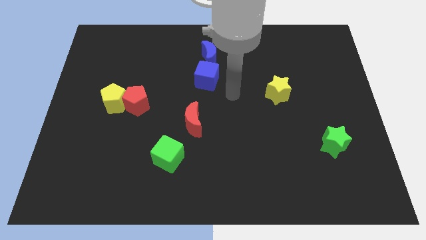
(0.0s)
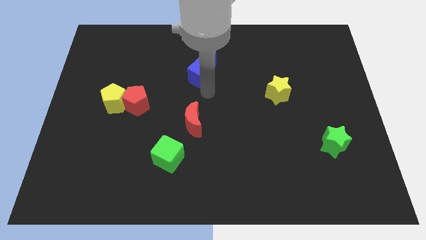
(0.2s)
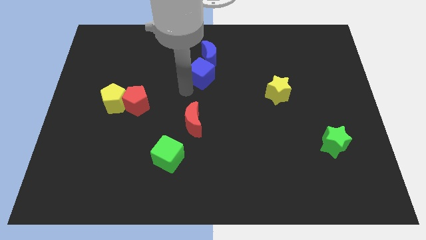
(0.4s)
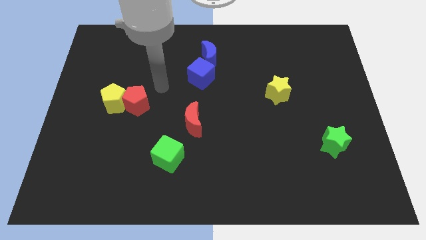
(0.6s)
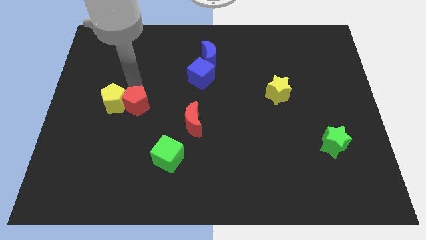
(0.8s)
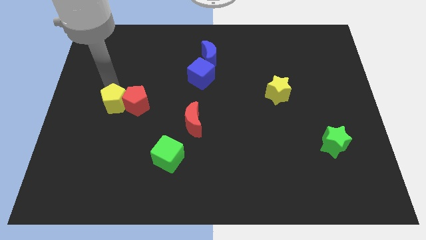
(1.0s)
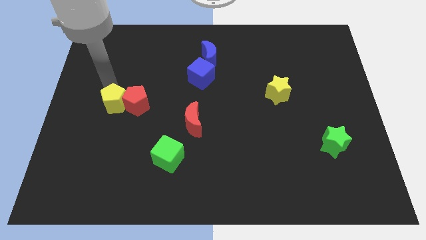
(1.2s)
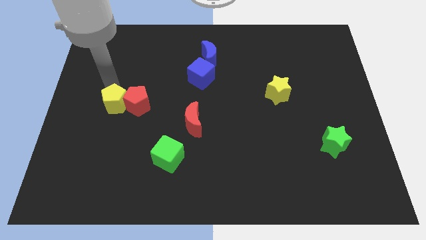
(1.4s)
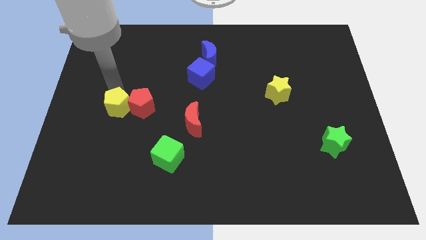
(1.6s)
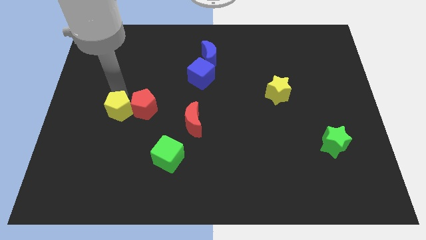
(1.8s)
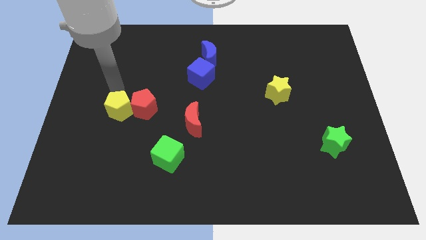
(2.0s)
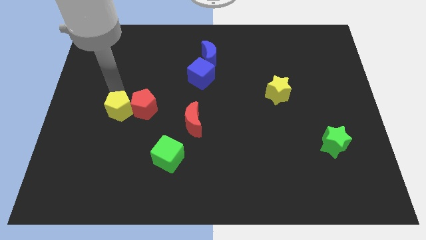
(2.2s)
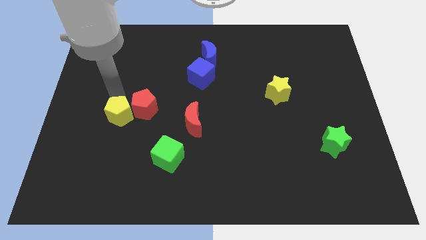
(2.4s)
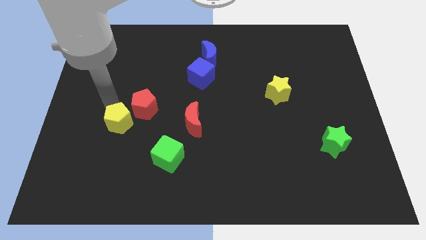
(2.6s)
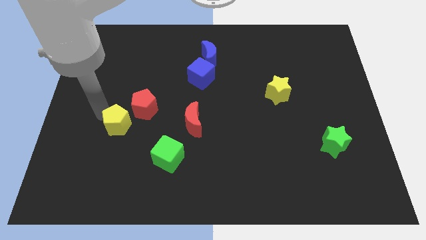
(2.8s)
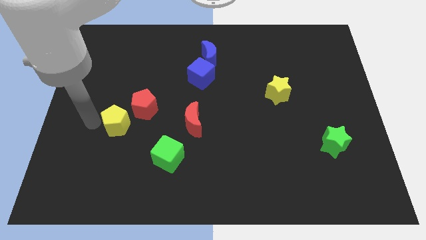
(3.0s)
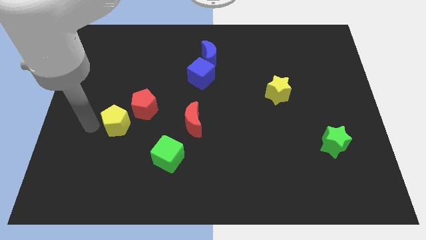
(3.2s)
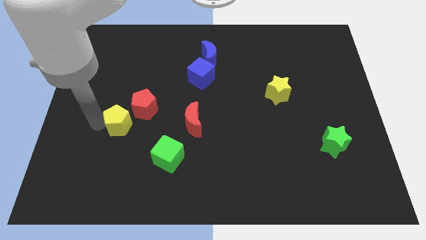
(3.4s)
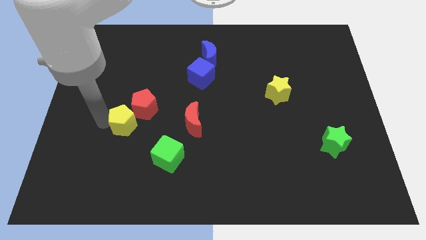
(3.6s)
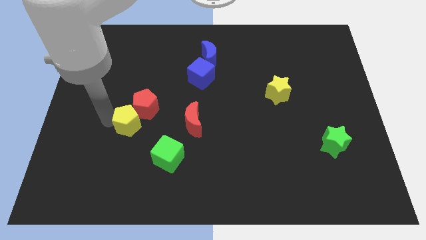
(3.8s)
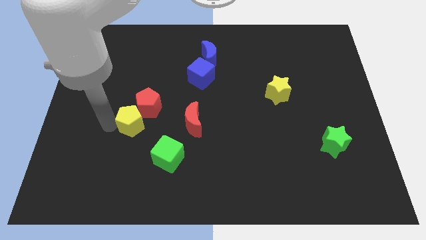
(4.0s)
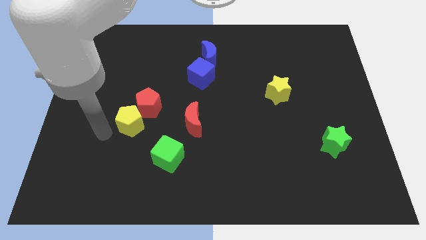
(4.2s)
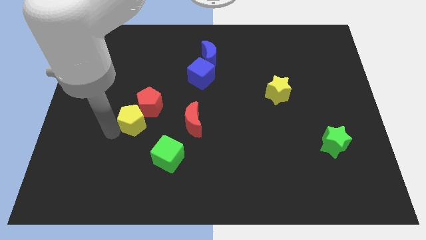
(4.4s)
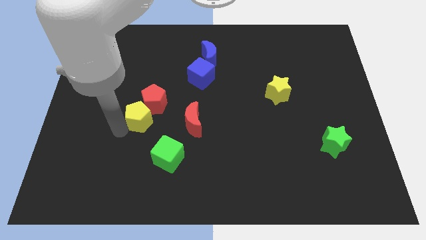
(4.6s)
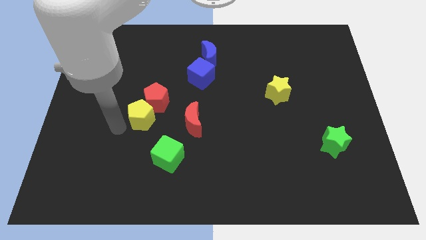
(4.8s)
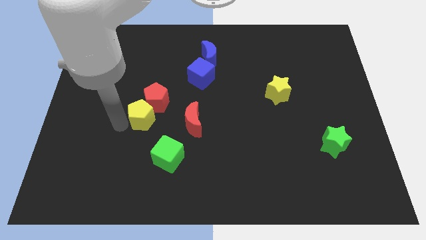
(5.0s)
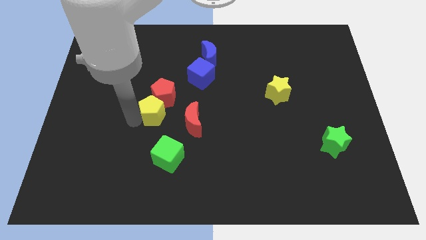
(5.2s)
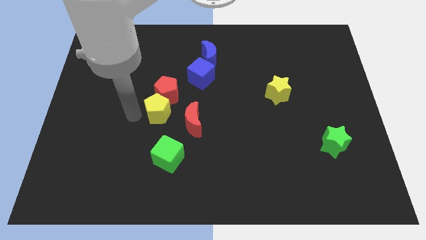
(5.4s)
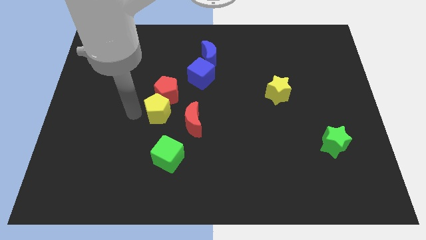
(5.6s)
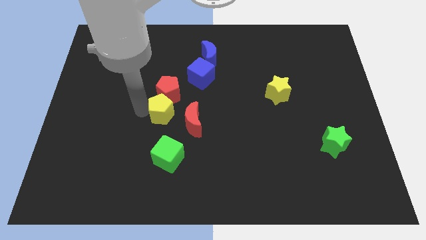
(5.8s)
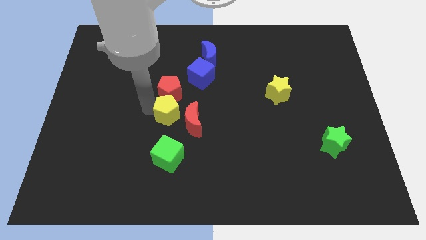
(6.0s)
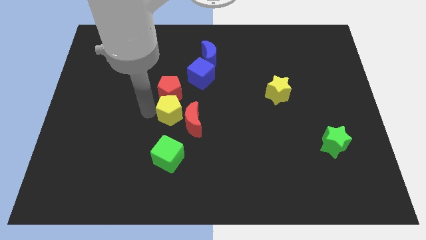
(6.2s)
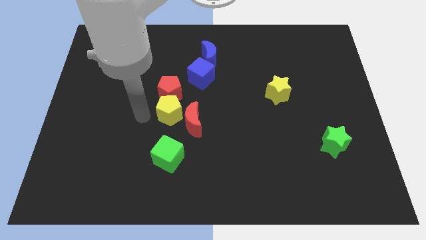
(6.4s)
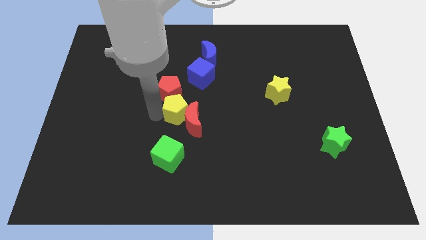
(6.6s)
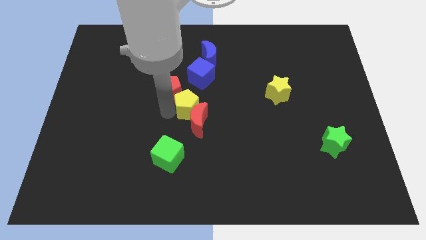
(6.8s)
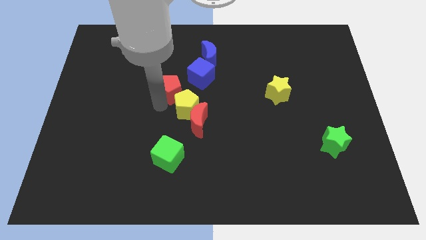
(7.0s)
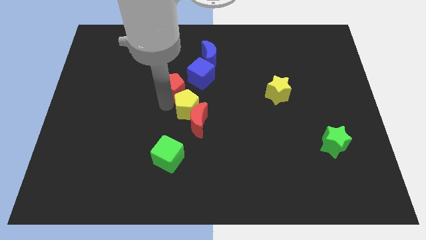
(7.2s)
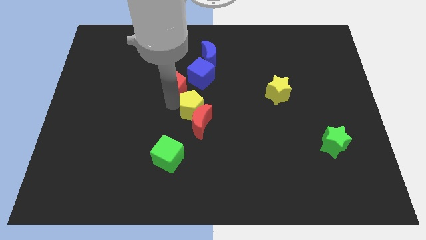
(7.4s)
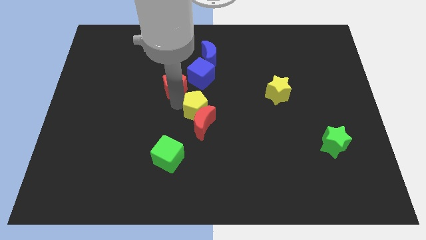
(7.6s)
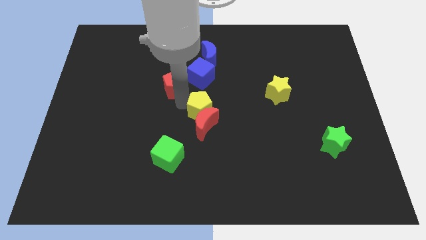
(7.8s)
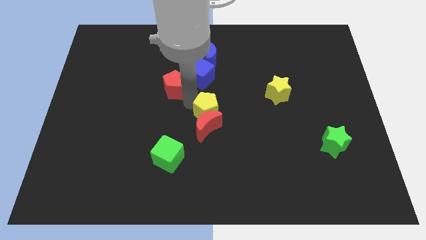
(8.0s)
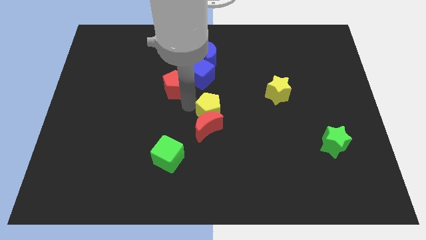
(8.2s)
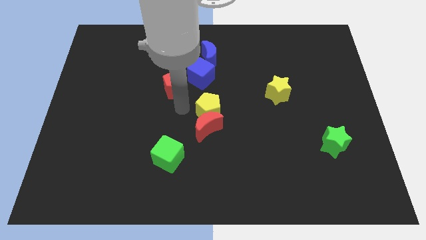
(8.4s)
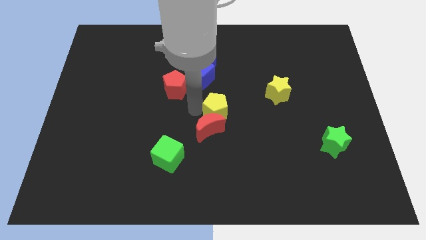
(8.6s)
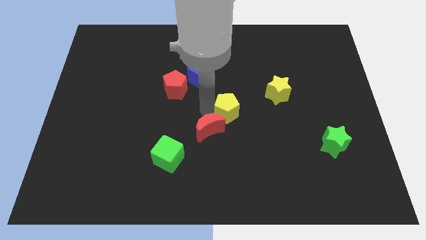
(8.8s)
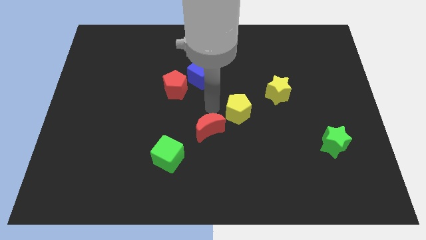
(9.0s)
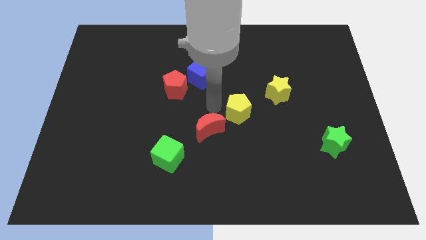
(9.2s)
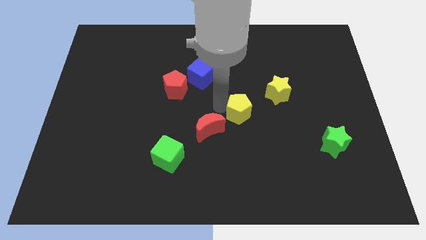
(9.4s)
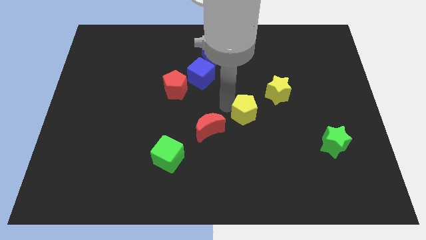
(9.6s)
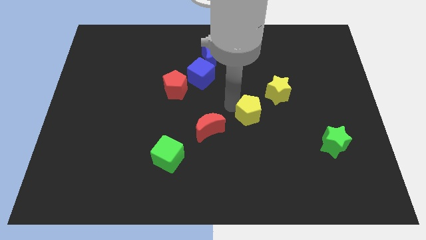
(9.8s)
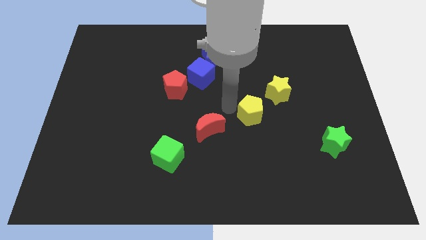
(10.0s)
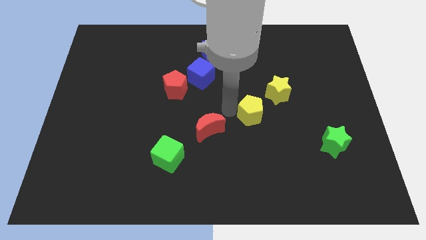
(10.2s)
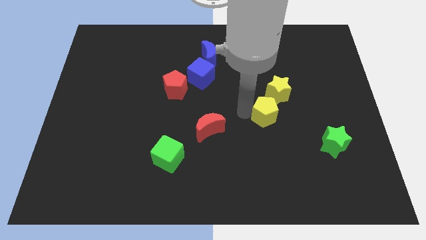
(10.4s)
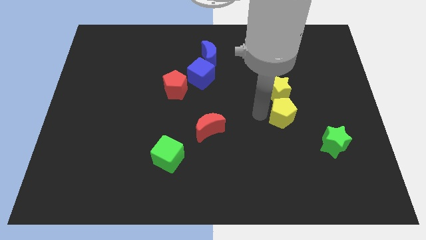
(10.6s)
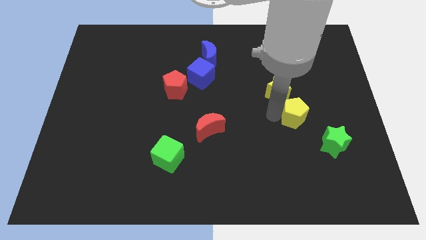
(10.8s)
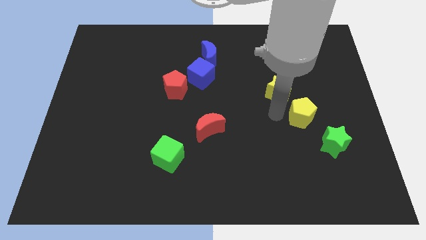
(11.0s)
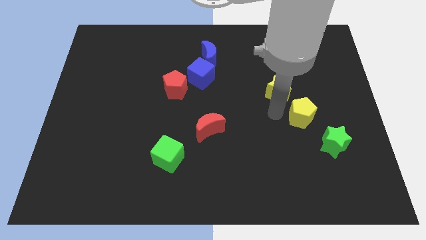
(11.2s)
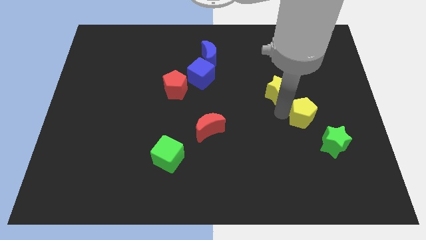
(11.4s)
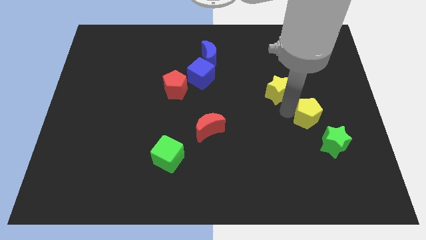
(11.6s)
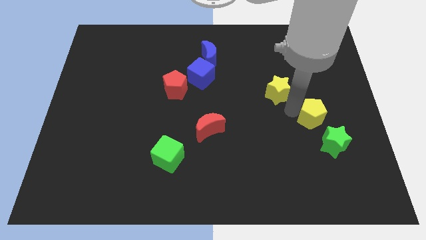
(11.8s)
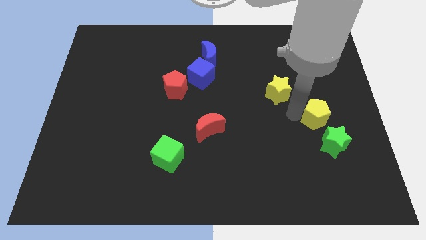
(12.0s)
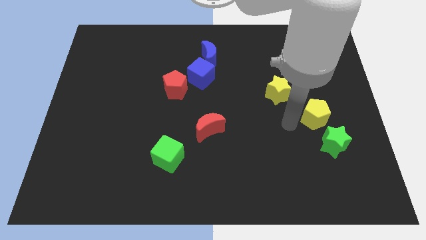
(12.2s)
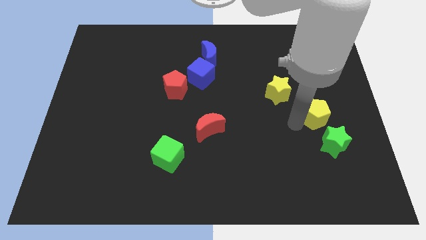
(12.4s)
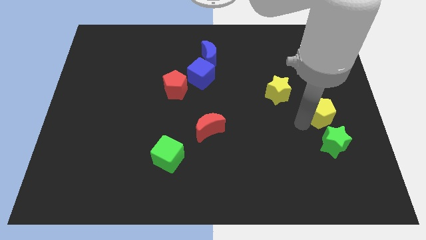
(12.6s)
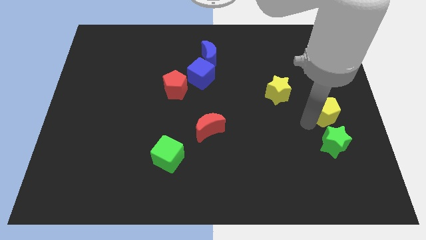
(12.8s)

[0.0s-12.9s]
move the yellow pentagon to the right side of the board
